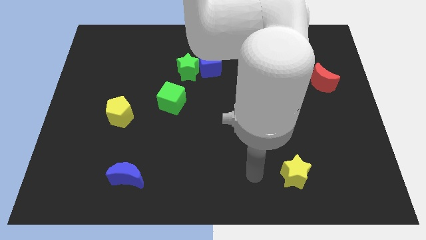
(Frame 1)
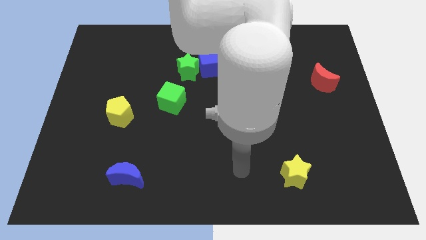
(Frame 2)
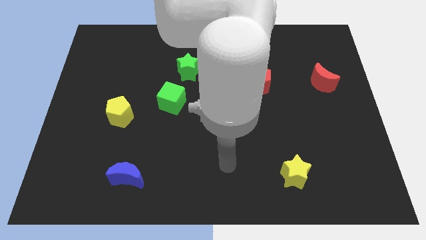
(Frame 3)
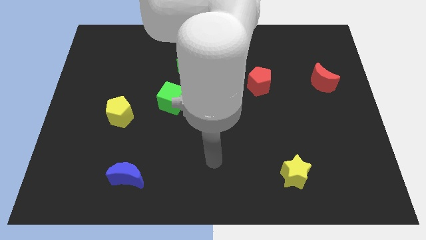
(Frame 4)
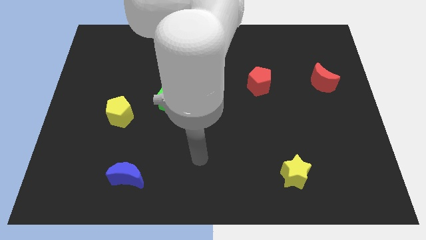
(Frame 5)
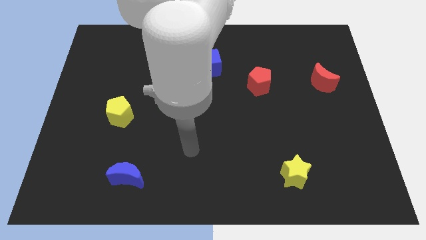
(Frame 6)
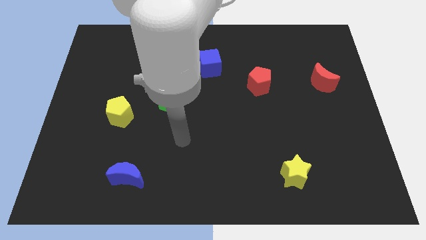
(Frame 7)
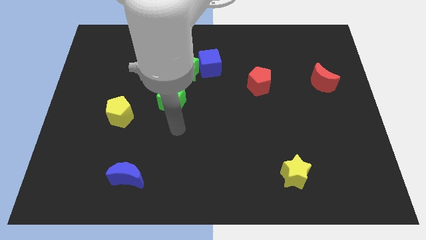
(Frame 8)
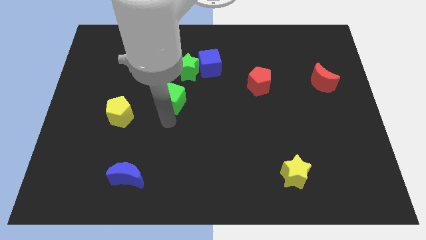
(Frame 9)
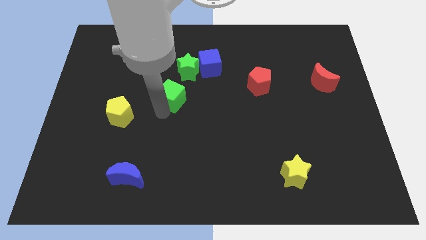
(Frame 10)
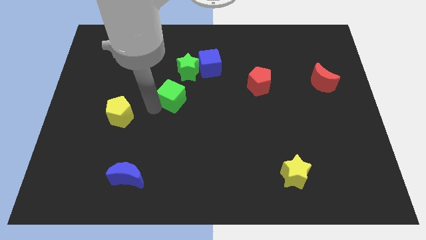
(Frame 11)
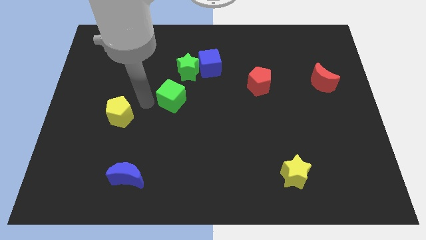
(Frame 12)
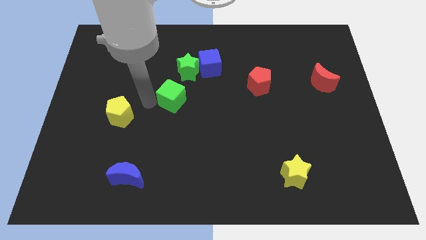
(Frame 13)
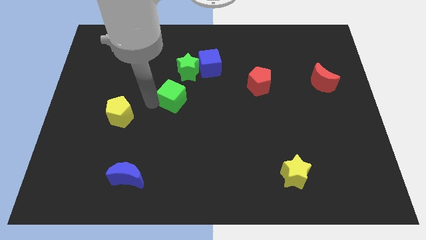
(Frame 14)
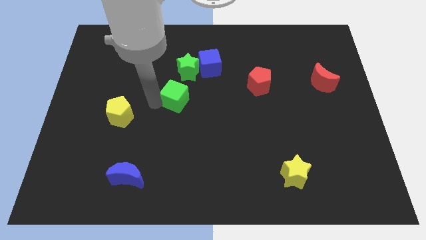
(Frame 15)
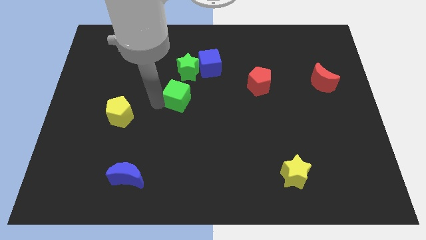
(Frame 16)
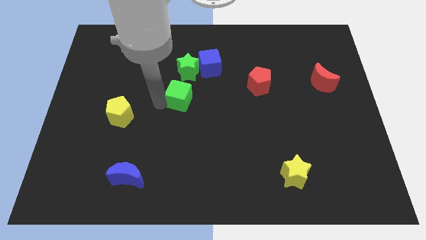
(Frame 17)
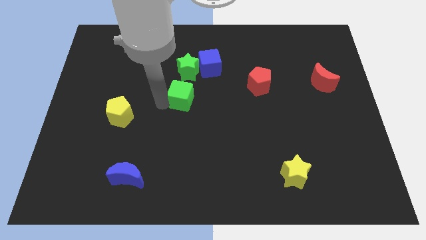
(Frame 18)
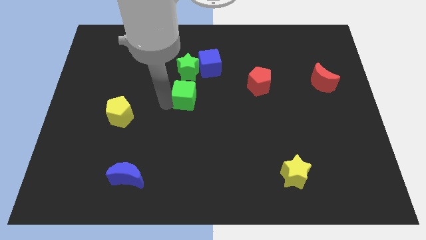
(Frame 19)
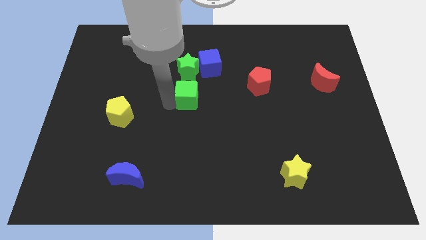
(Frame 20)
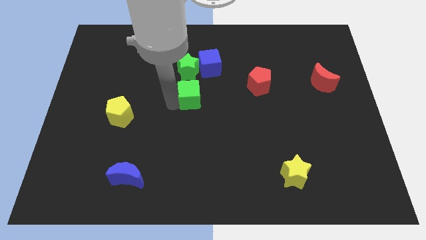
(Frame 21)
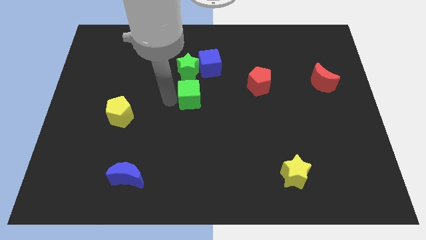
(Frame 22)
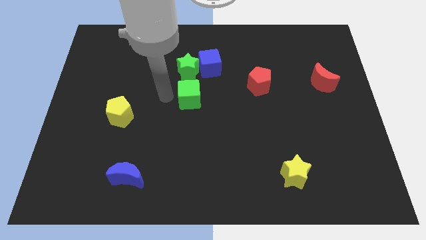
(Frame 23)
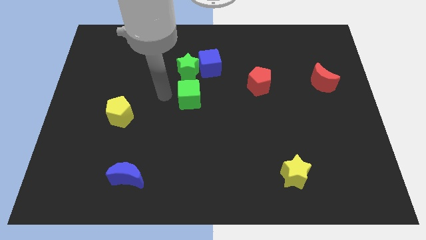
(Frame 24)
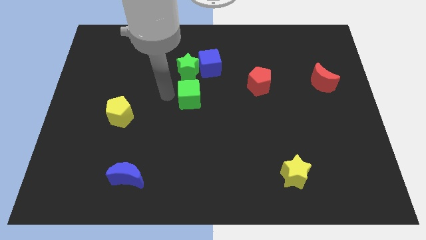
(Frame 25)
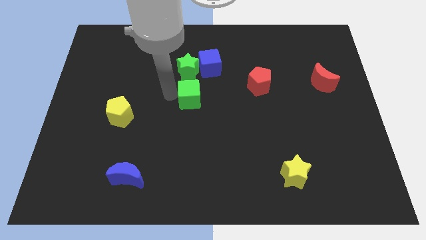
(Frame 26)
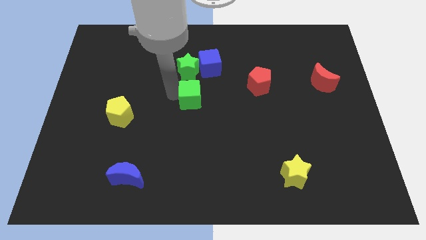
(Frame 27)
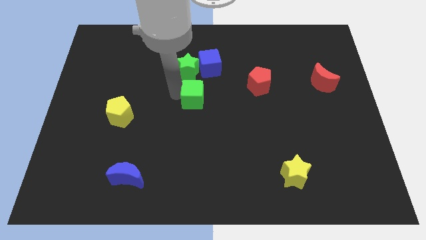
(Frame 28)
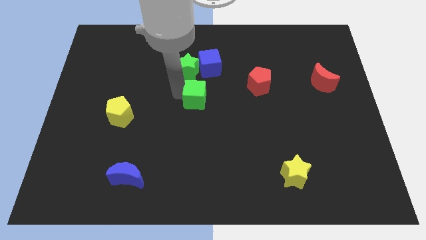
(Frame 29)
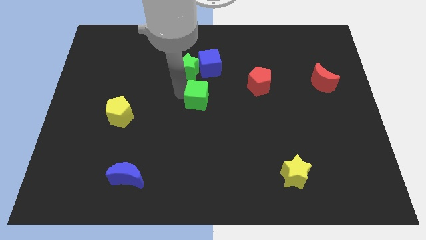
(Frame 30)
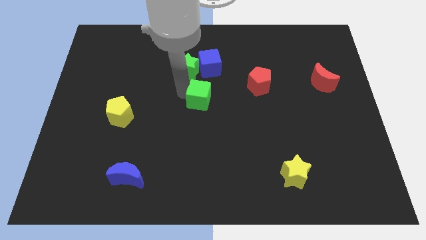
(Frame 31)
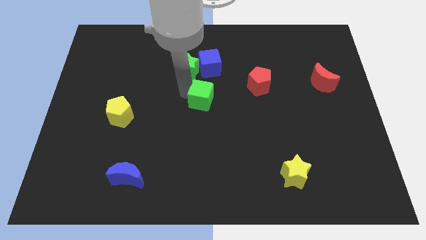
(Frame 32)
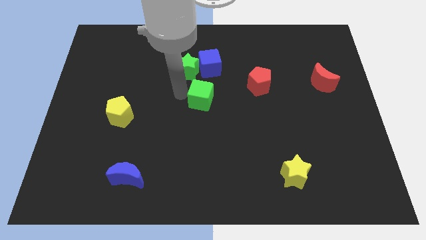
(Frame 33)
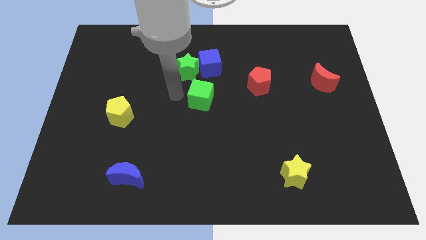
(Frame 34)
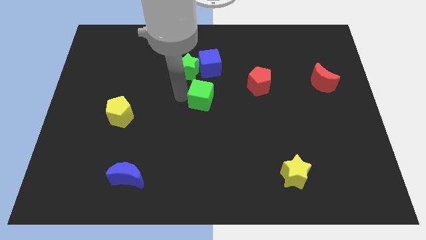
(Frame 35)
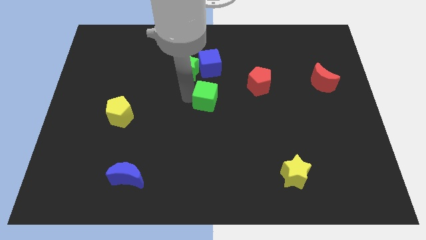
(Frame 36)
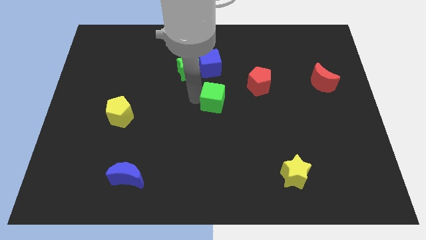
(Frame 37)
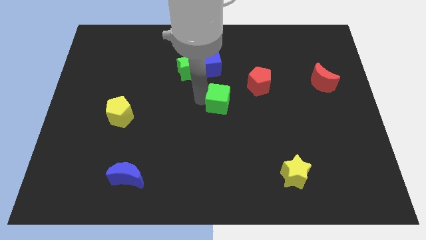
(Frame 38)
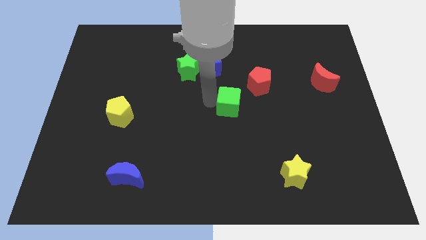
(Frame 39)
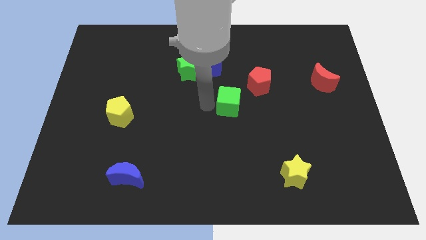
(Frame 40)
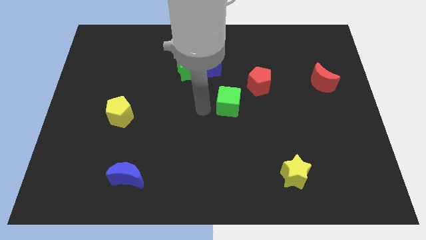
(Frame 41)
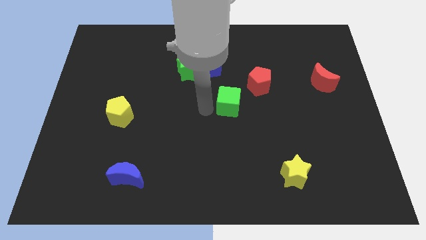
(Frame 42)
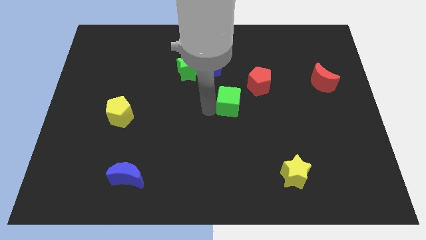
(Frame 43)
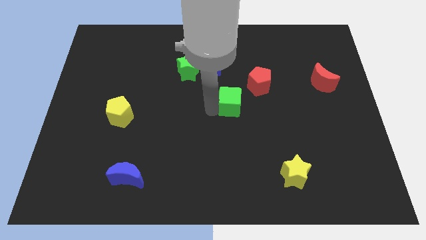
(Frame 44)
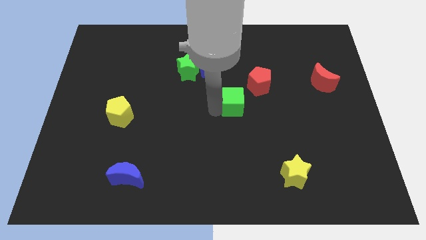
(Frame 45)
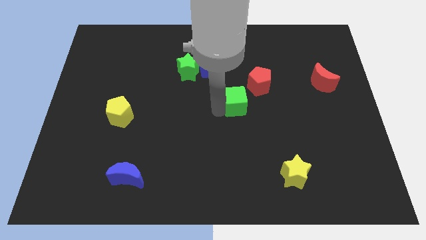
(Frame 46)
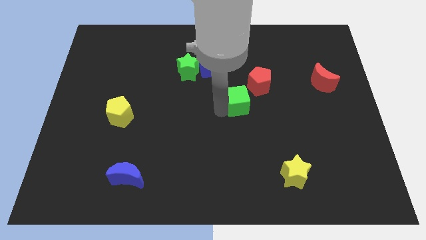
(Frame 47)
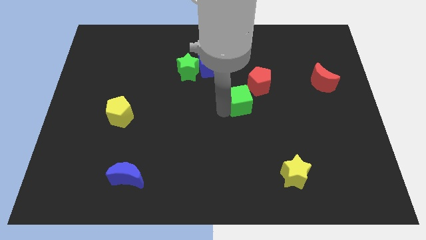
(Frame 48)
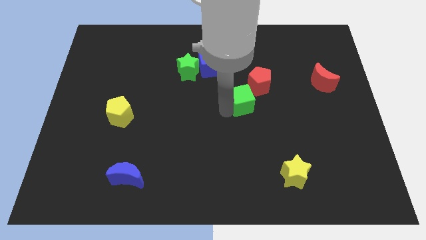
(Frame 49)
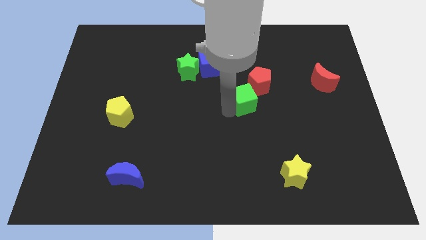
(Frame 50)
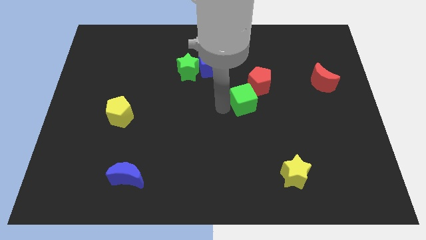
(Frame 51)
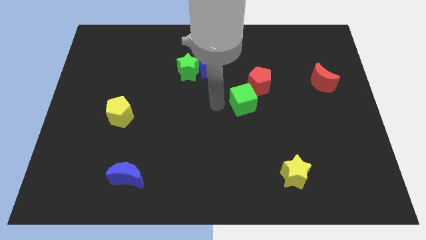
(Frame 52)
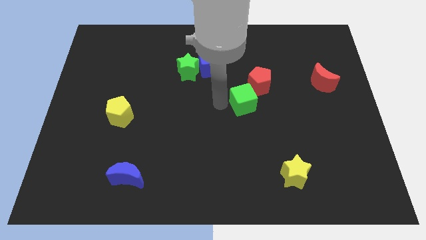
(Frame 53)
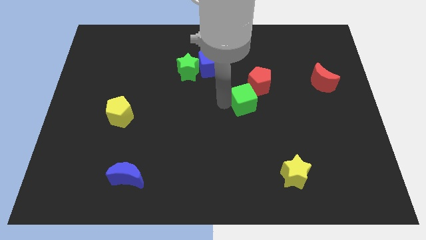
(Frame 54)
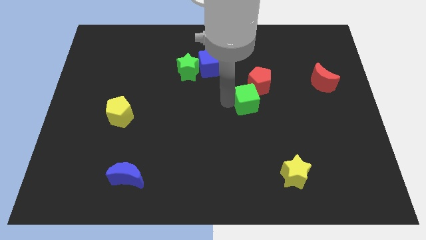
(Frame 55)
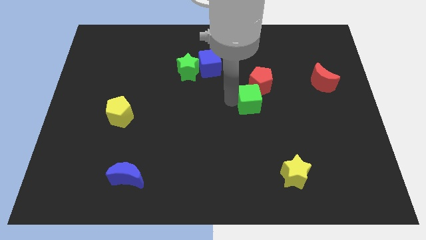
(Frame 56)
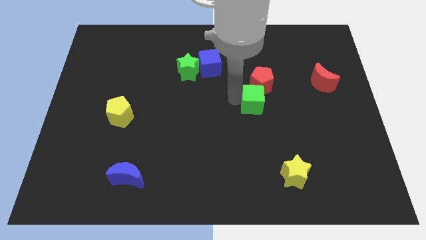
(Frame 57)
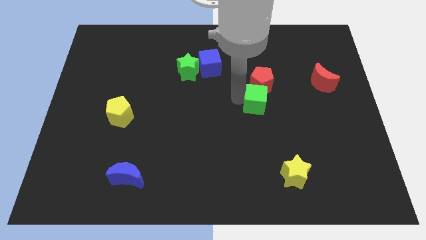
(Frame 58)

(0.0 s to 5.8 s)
move the green cube right

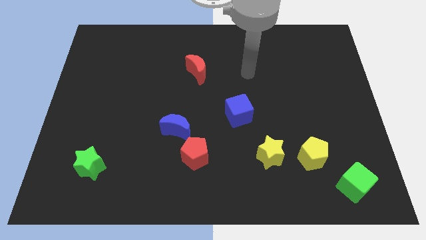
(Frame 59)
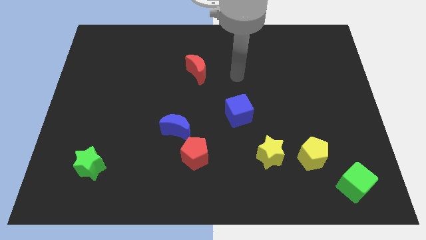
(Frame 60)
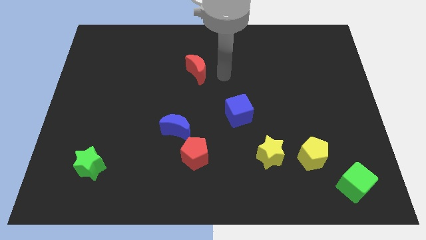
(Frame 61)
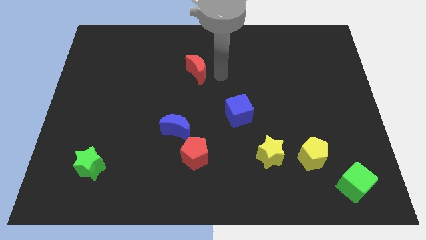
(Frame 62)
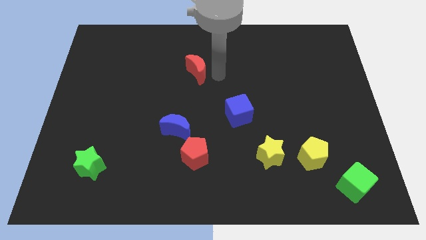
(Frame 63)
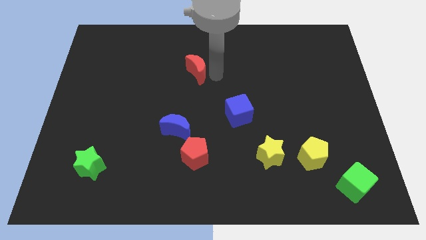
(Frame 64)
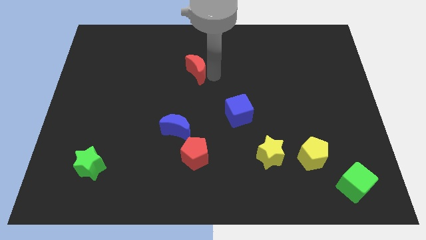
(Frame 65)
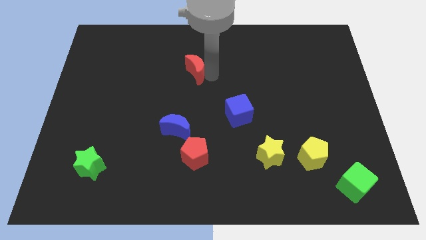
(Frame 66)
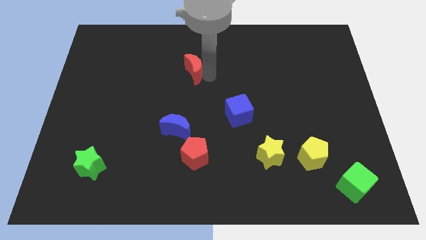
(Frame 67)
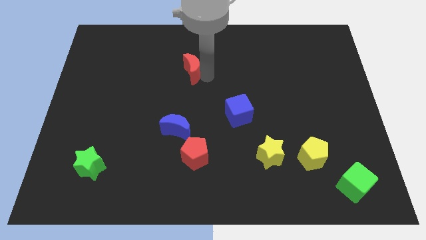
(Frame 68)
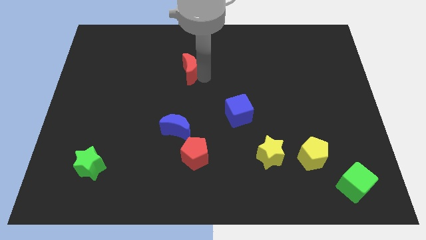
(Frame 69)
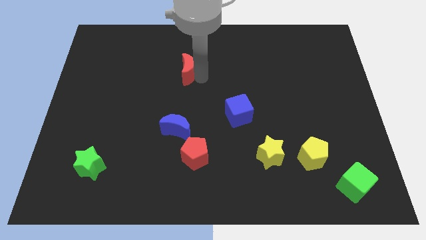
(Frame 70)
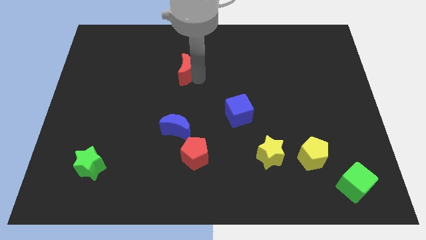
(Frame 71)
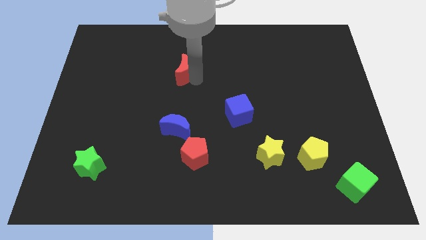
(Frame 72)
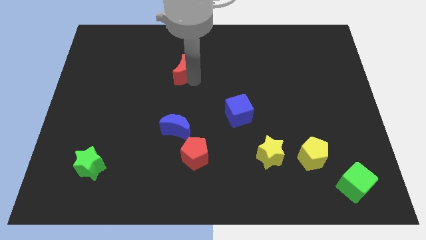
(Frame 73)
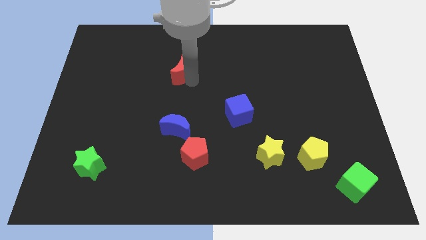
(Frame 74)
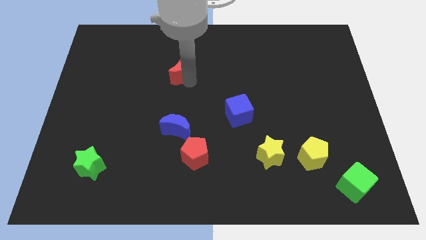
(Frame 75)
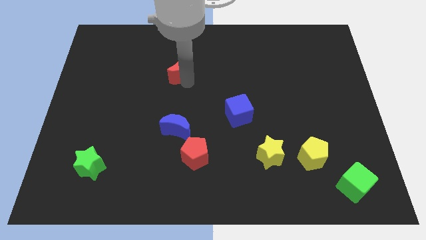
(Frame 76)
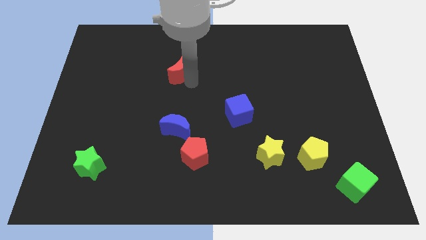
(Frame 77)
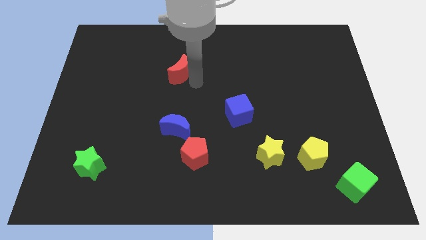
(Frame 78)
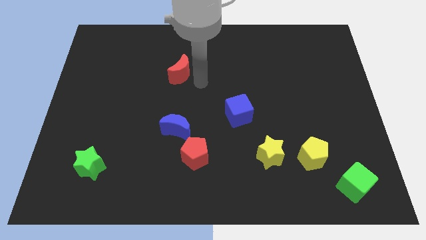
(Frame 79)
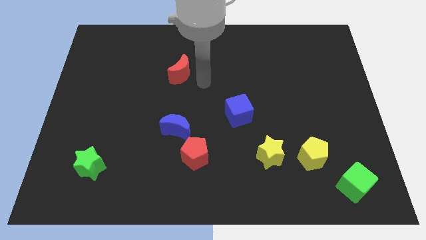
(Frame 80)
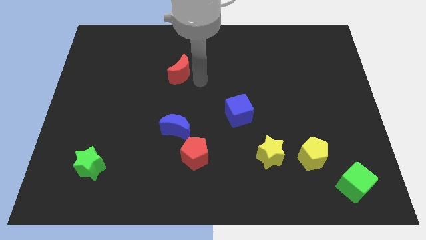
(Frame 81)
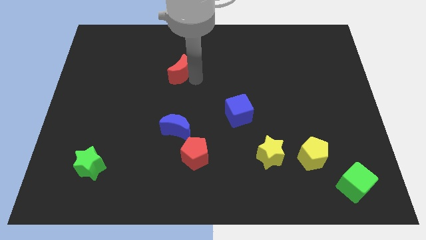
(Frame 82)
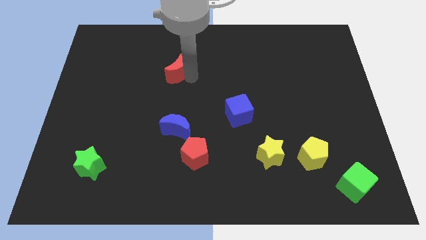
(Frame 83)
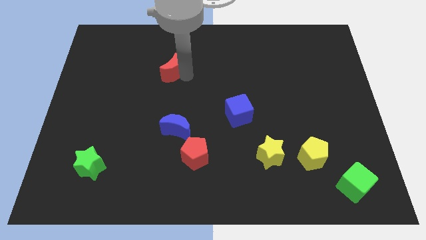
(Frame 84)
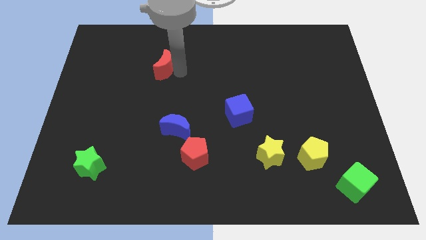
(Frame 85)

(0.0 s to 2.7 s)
slide the red moon somewhat to the left
